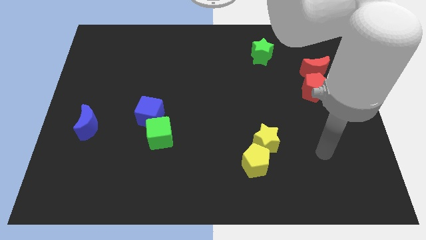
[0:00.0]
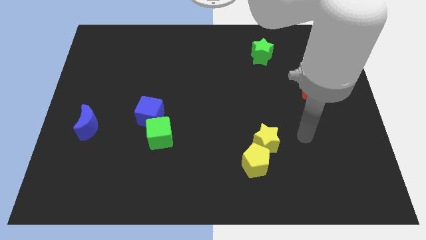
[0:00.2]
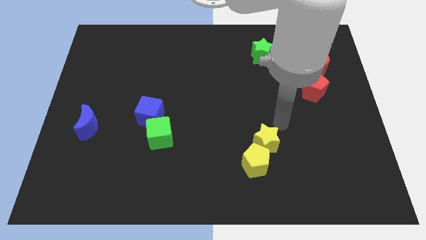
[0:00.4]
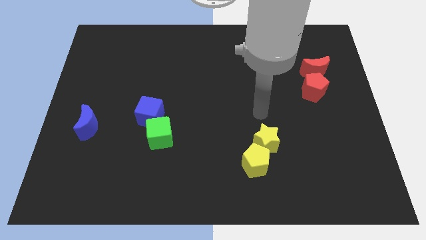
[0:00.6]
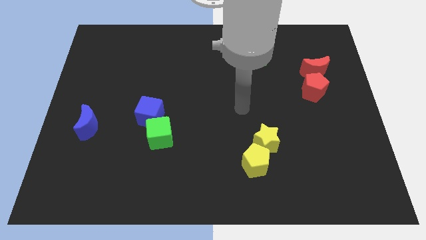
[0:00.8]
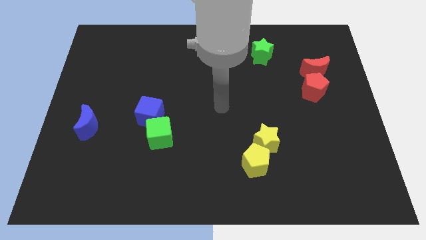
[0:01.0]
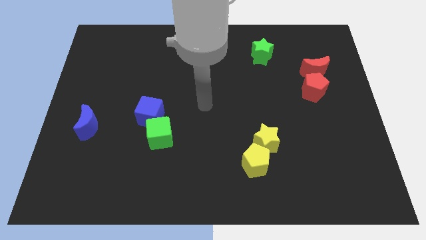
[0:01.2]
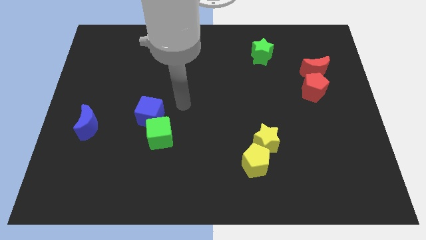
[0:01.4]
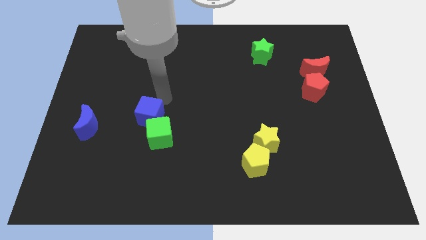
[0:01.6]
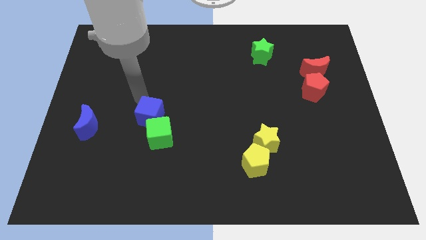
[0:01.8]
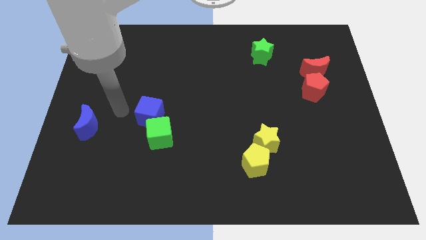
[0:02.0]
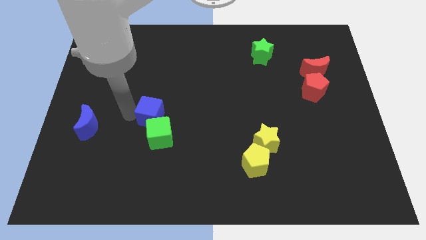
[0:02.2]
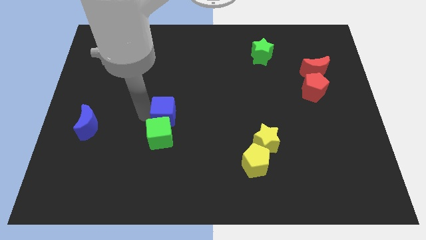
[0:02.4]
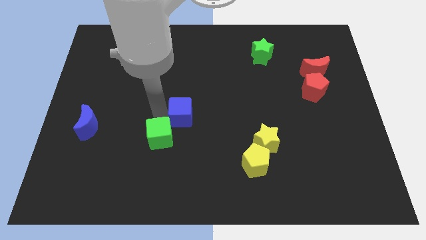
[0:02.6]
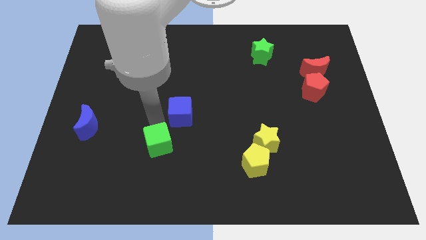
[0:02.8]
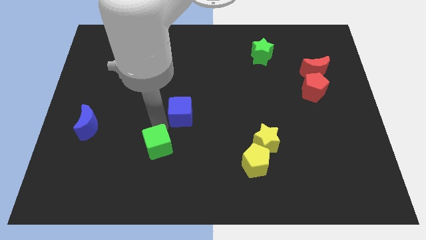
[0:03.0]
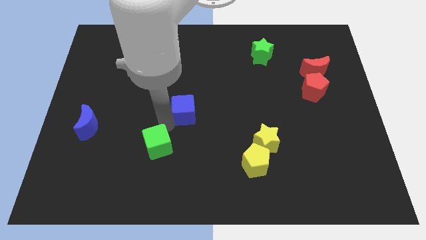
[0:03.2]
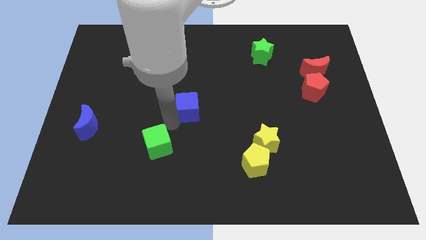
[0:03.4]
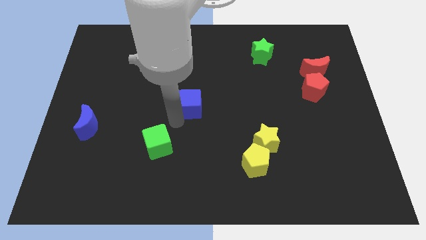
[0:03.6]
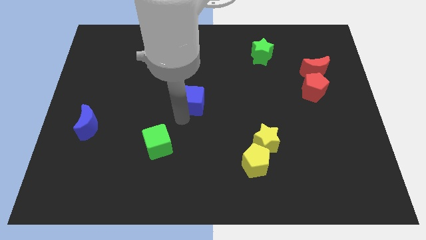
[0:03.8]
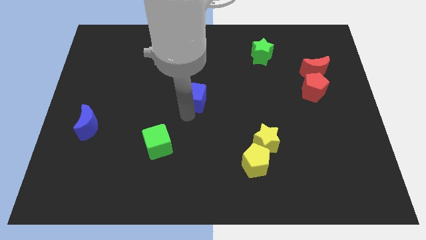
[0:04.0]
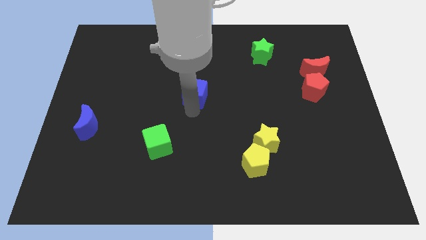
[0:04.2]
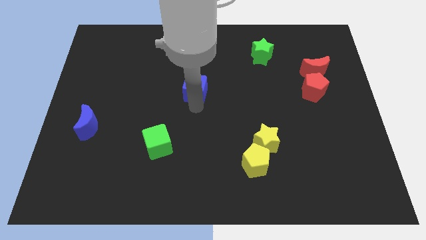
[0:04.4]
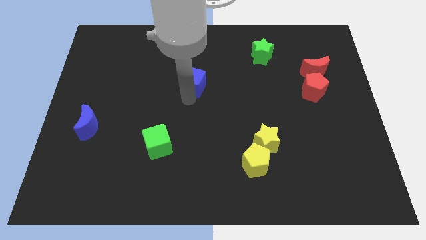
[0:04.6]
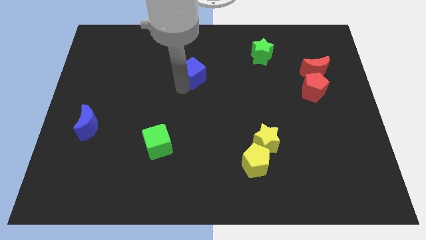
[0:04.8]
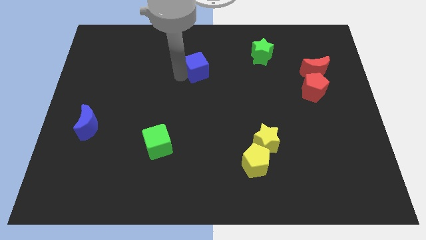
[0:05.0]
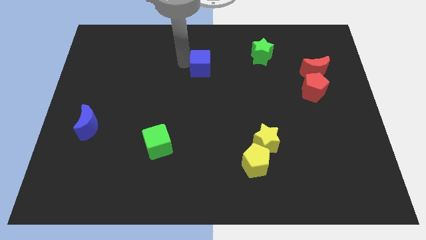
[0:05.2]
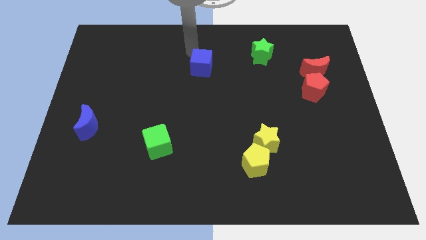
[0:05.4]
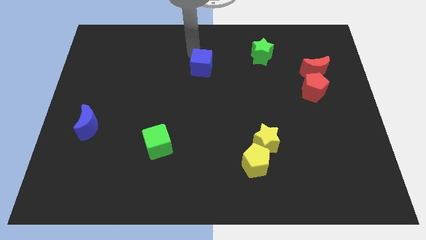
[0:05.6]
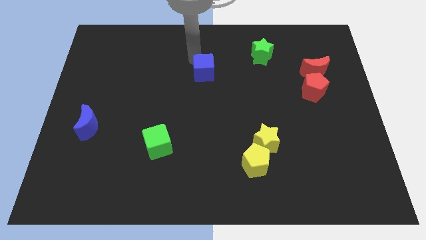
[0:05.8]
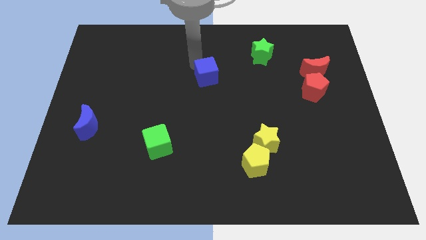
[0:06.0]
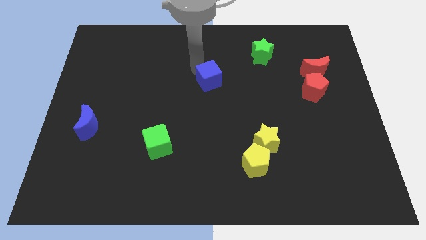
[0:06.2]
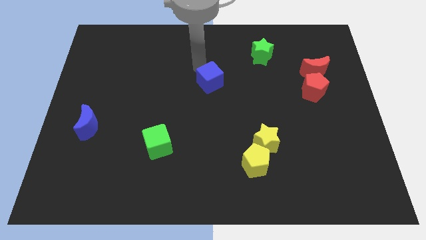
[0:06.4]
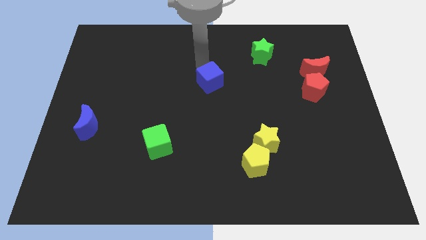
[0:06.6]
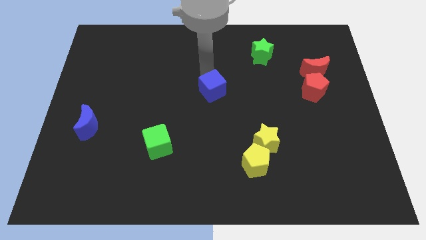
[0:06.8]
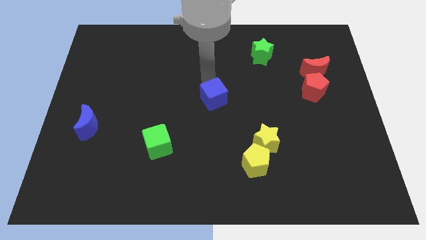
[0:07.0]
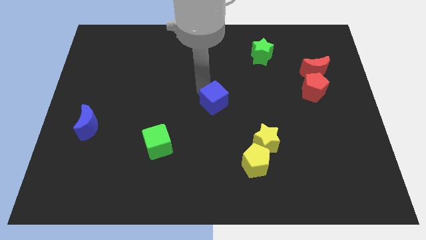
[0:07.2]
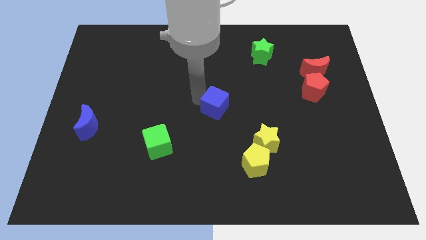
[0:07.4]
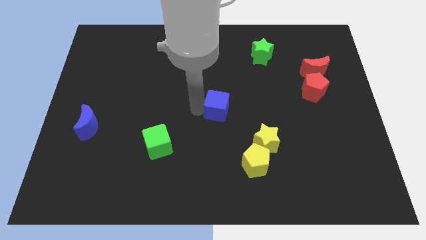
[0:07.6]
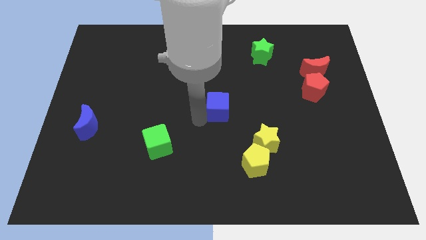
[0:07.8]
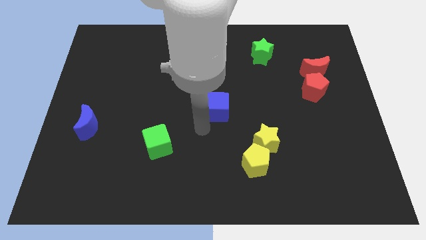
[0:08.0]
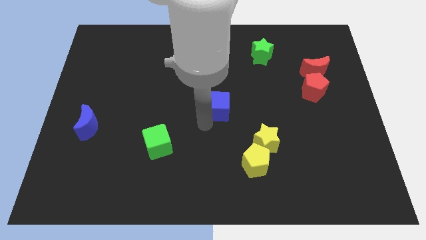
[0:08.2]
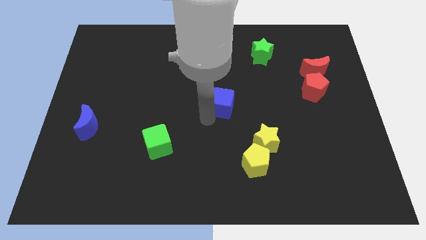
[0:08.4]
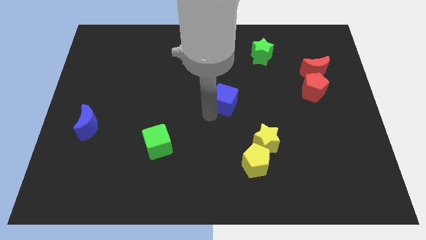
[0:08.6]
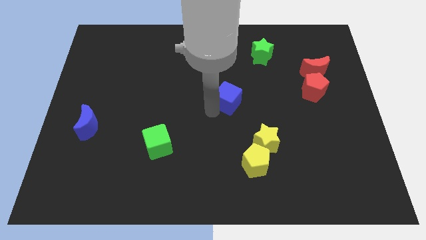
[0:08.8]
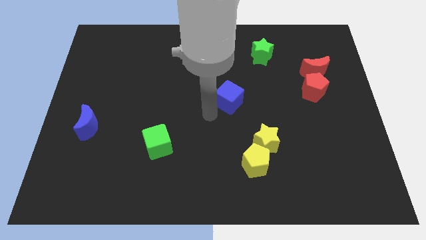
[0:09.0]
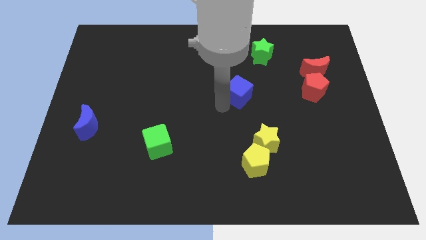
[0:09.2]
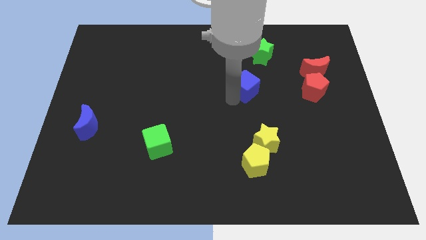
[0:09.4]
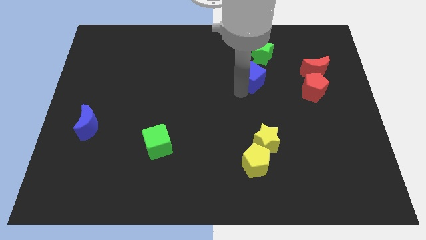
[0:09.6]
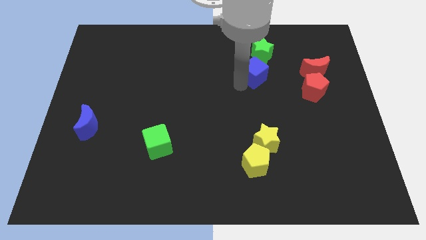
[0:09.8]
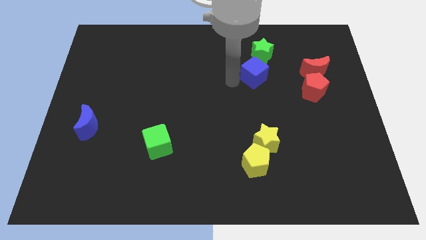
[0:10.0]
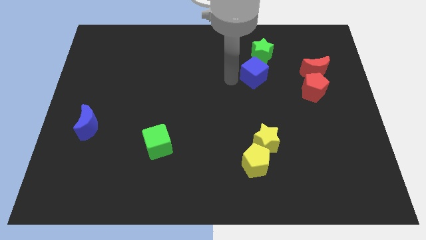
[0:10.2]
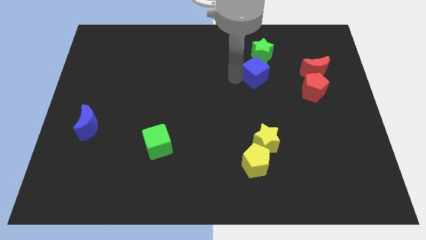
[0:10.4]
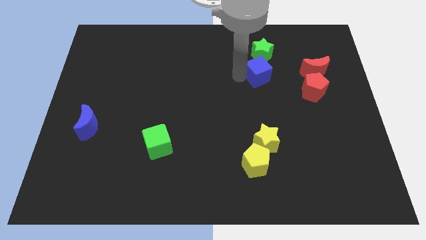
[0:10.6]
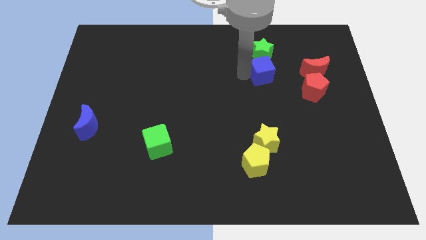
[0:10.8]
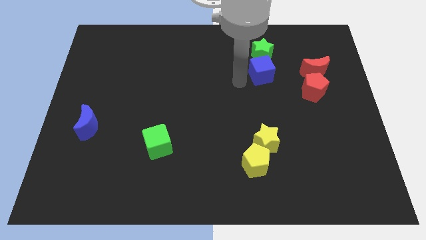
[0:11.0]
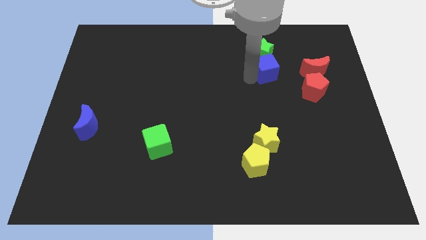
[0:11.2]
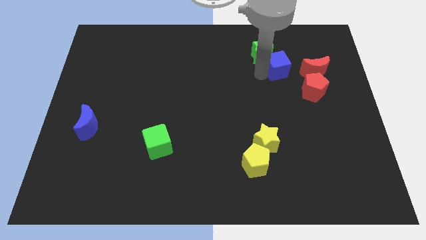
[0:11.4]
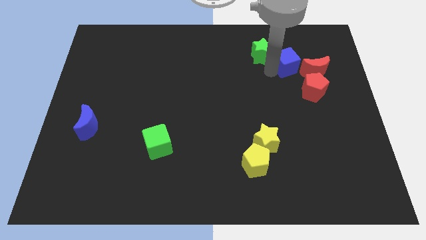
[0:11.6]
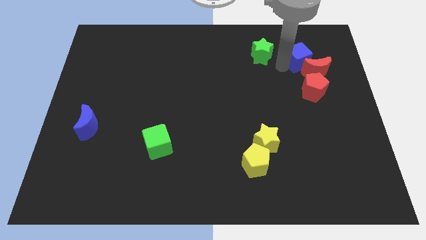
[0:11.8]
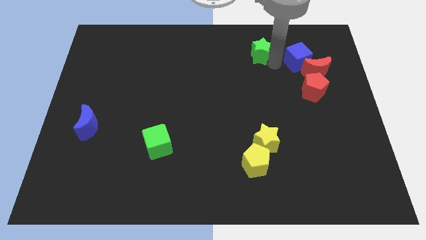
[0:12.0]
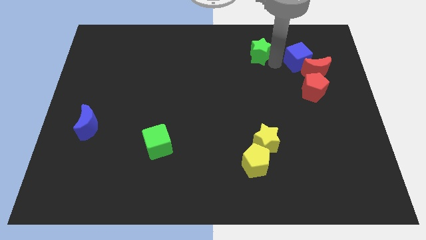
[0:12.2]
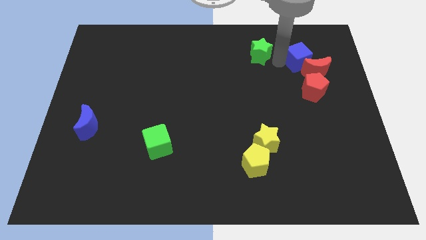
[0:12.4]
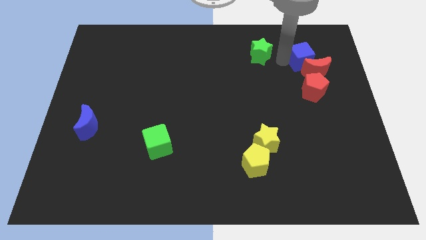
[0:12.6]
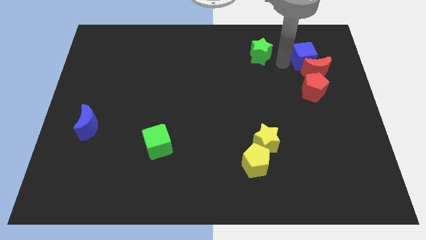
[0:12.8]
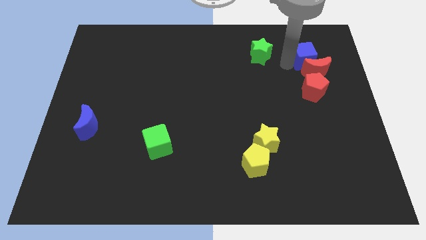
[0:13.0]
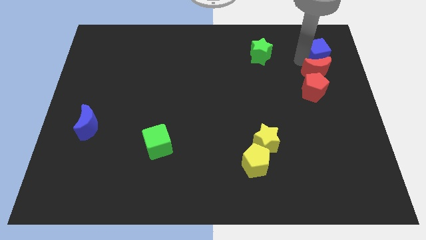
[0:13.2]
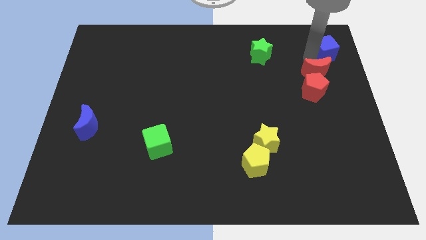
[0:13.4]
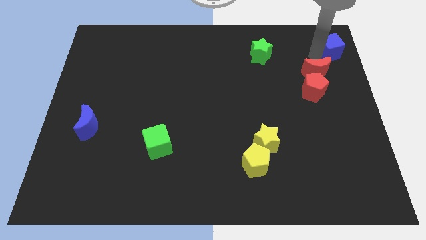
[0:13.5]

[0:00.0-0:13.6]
slide the blue cube to the top right of the board

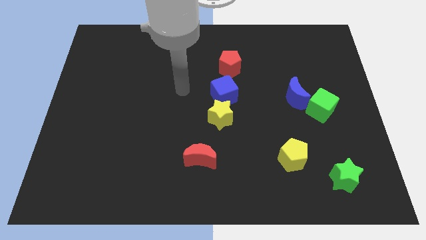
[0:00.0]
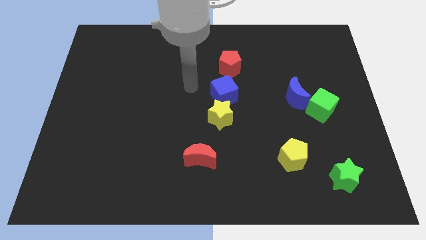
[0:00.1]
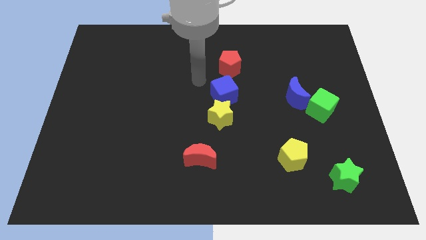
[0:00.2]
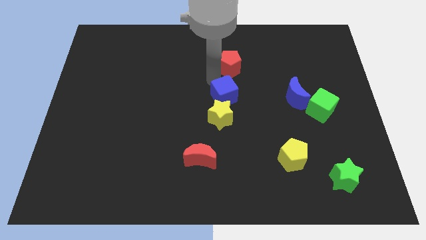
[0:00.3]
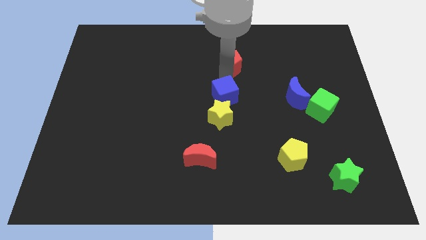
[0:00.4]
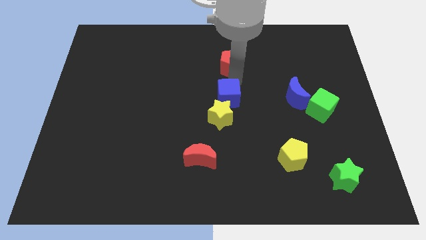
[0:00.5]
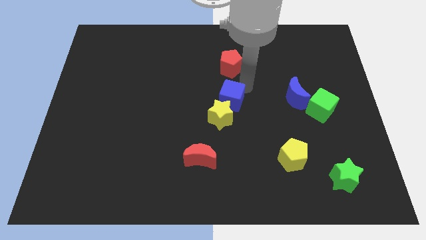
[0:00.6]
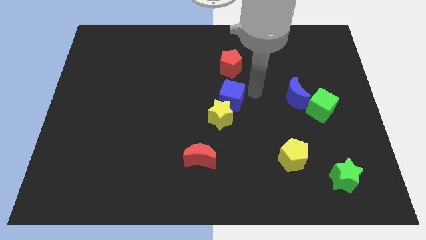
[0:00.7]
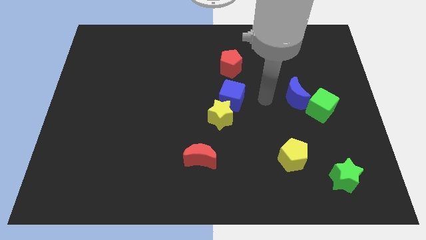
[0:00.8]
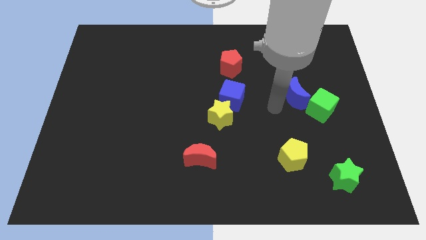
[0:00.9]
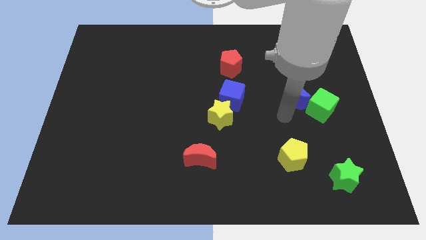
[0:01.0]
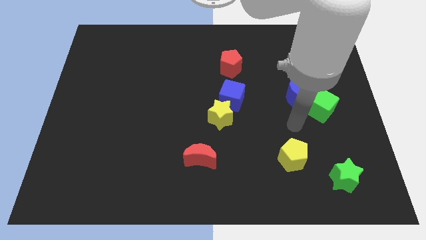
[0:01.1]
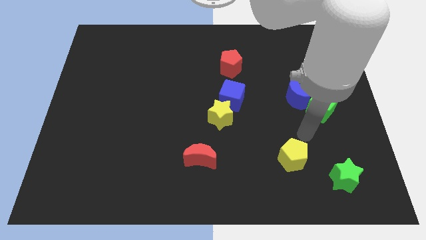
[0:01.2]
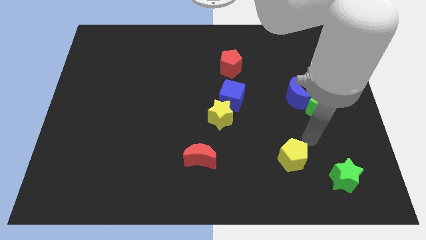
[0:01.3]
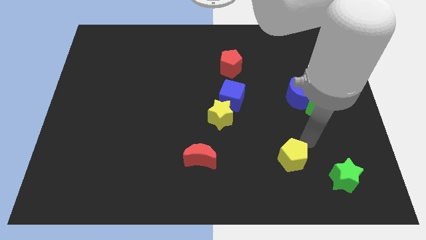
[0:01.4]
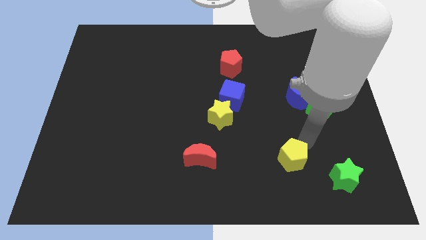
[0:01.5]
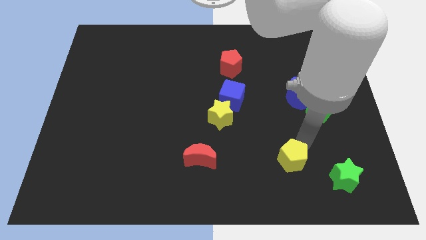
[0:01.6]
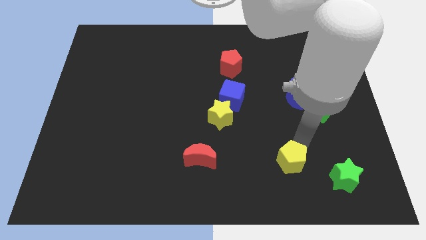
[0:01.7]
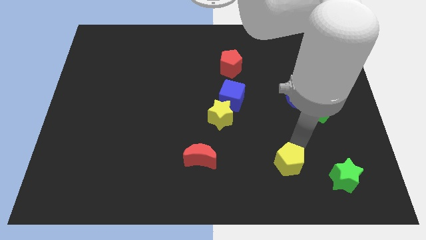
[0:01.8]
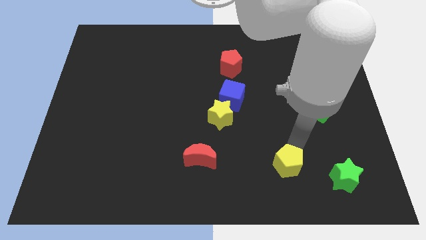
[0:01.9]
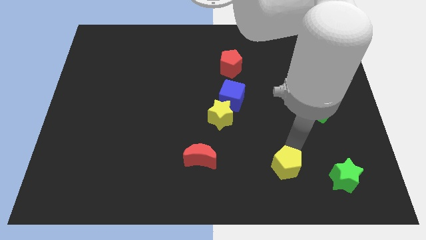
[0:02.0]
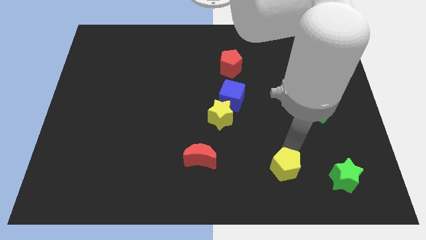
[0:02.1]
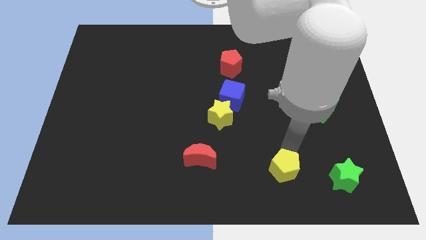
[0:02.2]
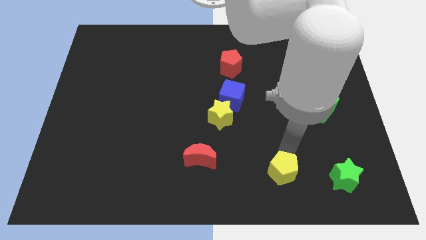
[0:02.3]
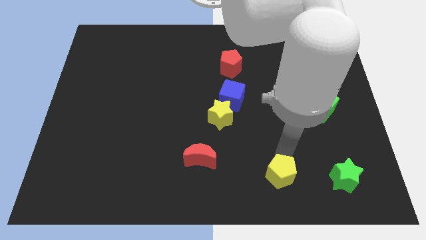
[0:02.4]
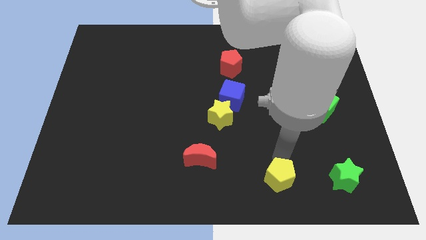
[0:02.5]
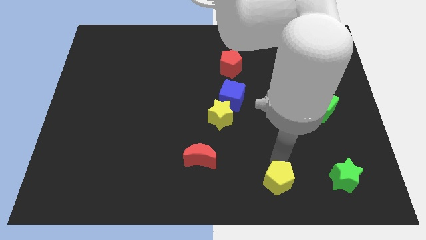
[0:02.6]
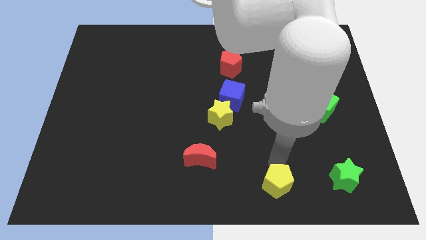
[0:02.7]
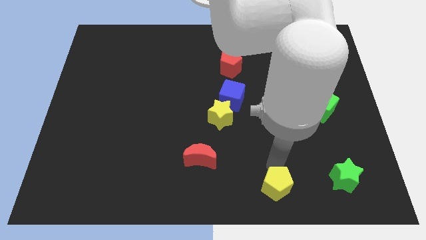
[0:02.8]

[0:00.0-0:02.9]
put the yellow pentagon to the bottom side
